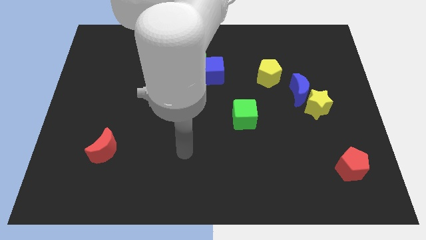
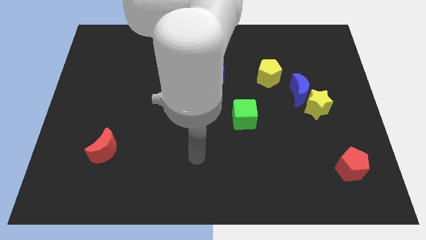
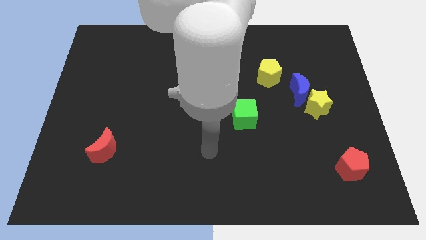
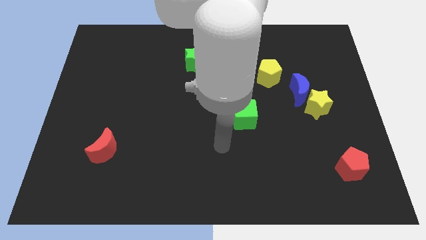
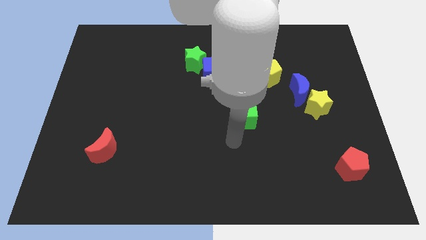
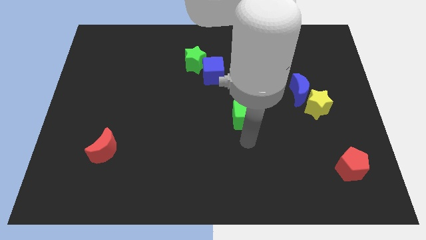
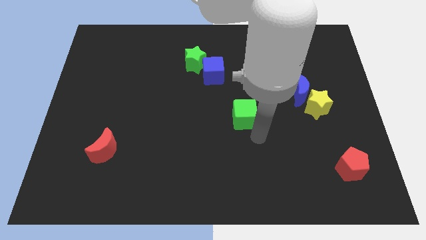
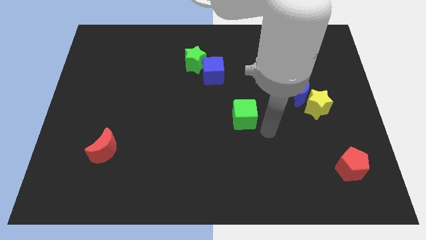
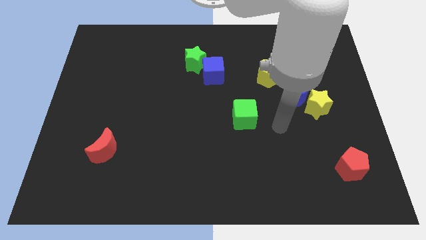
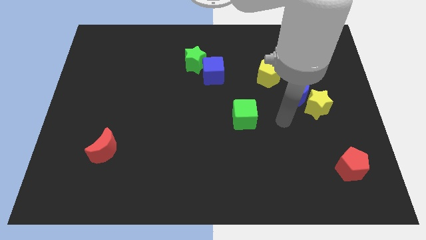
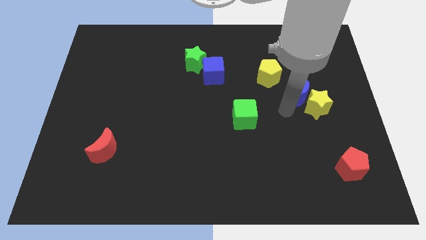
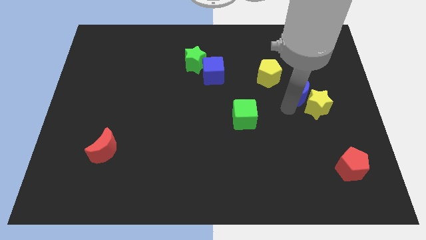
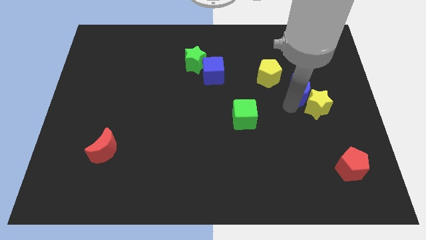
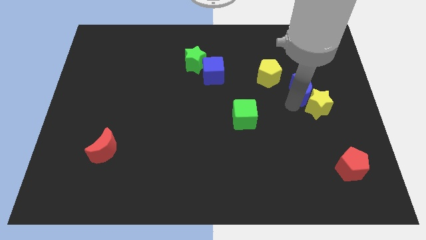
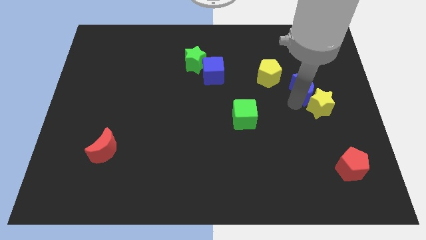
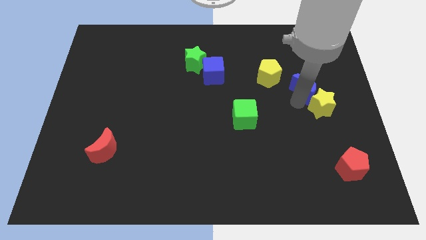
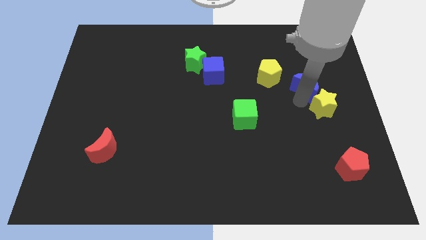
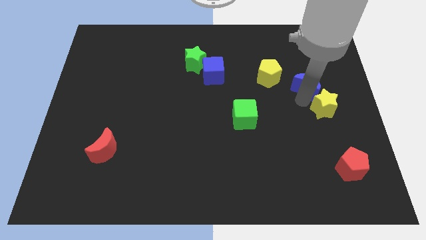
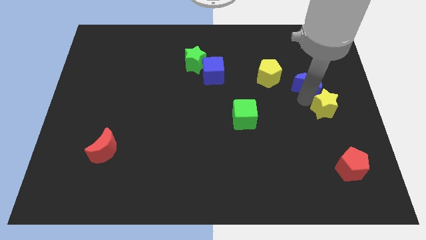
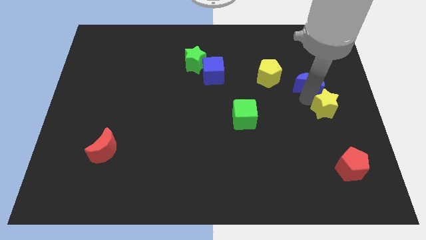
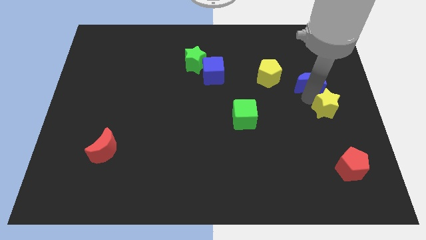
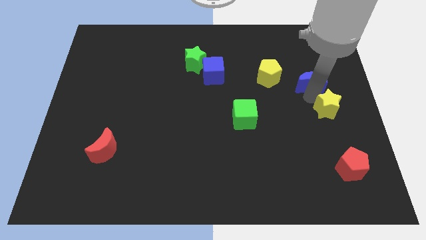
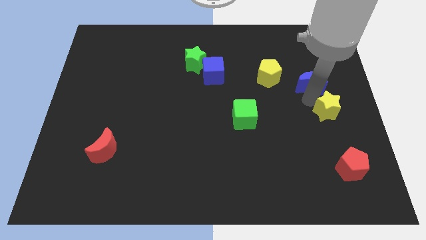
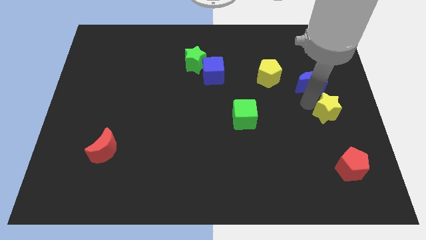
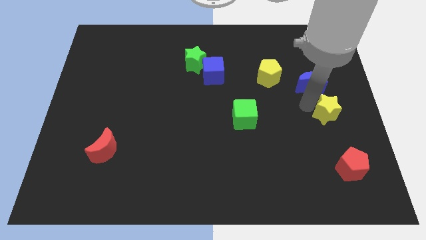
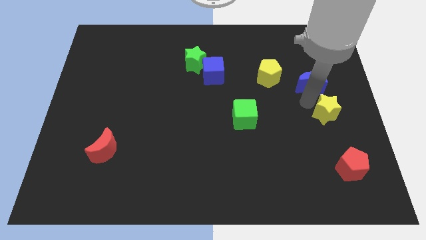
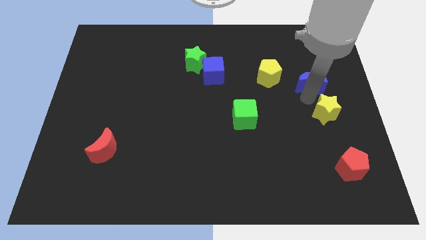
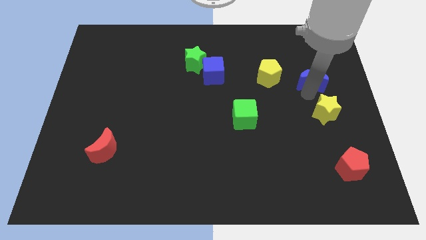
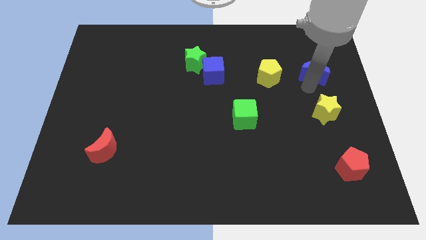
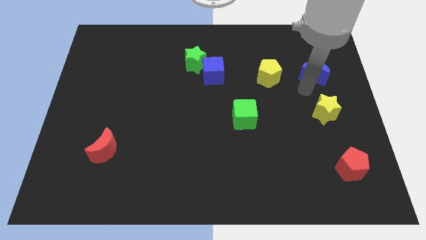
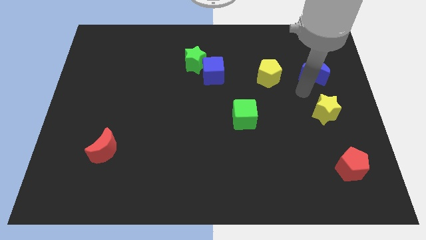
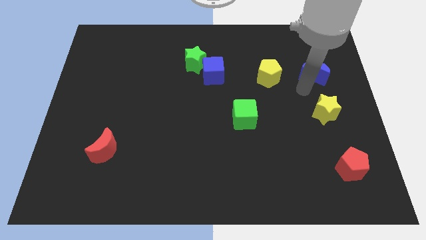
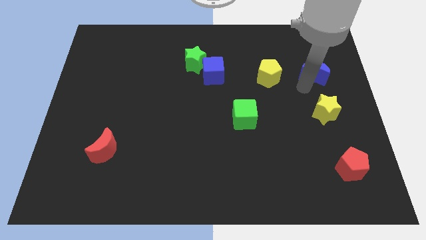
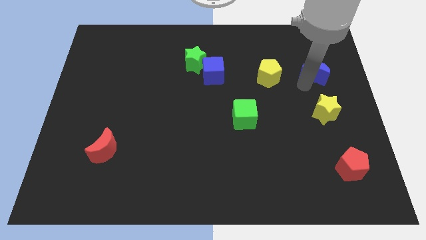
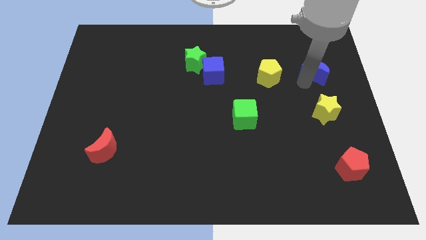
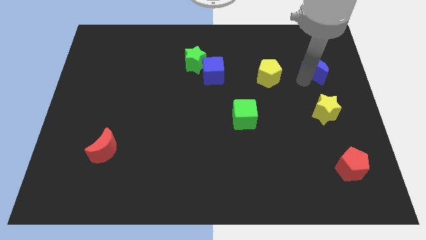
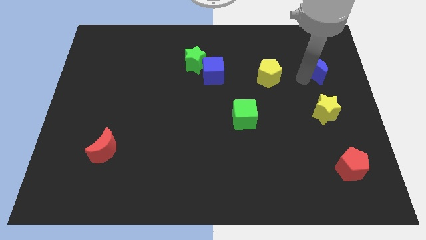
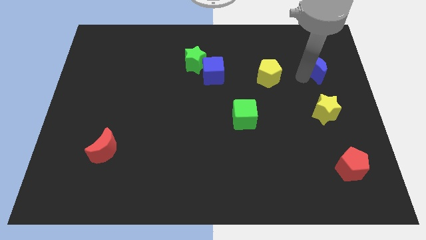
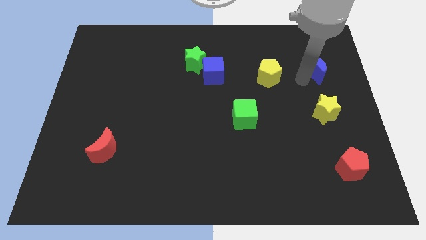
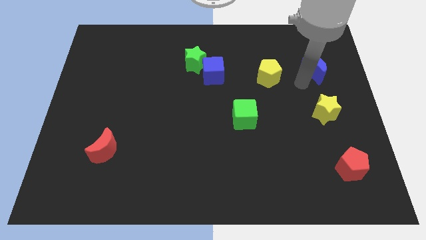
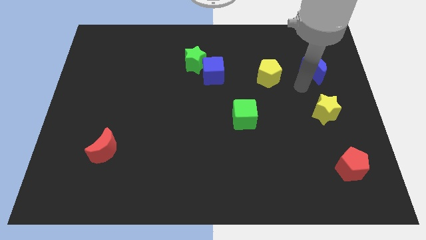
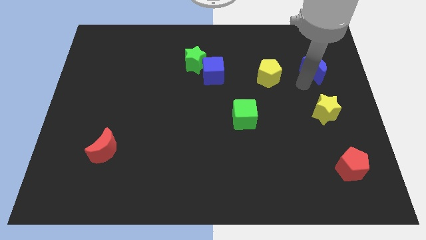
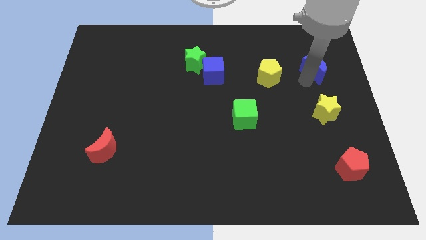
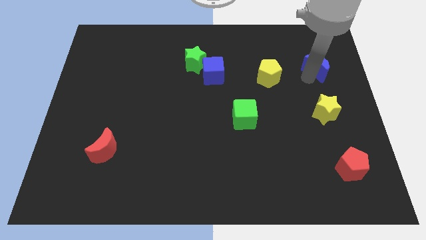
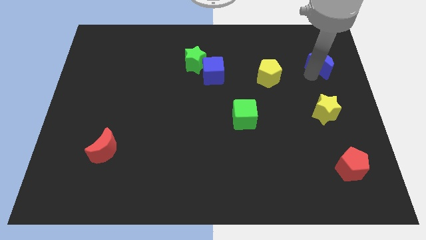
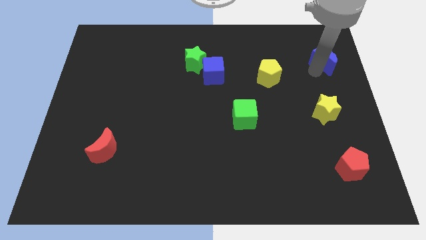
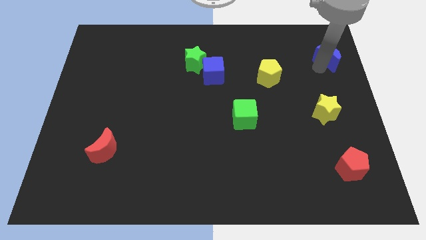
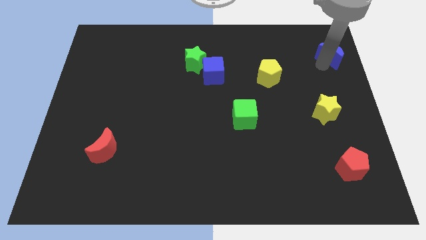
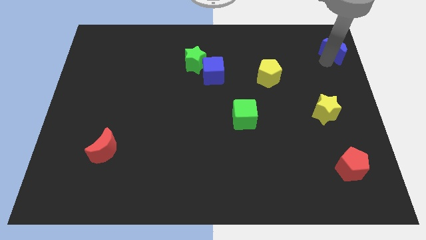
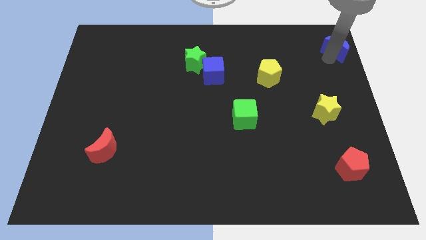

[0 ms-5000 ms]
slide the blue moon to the top right

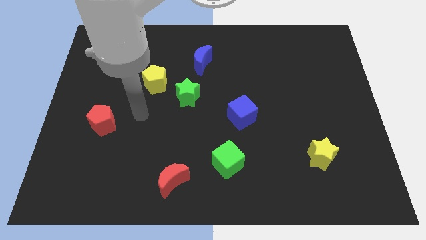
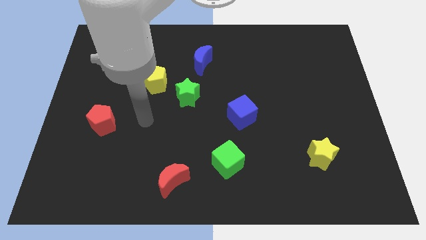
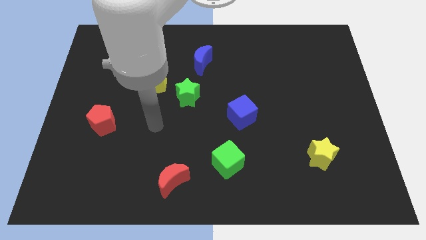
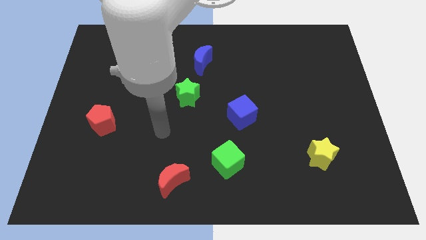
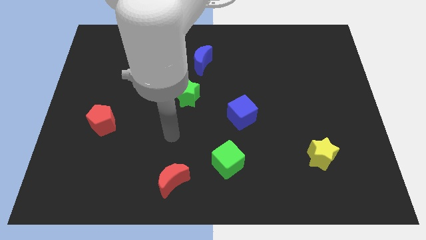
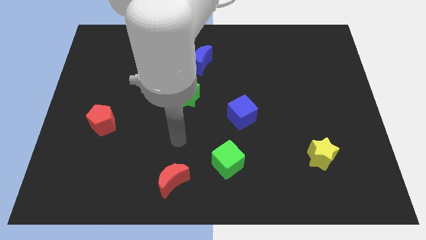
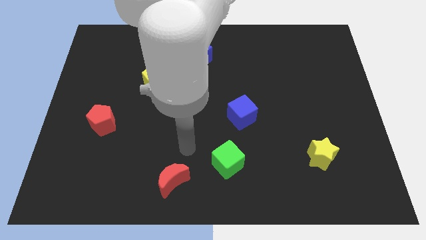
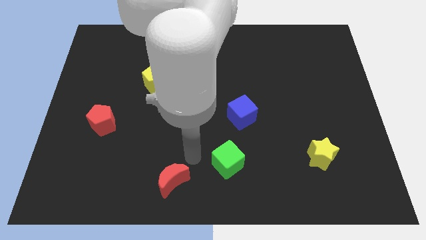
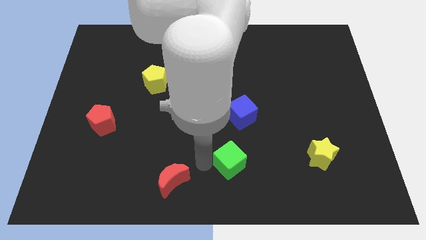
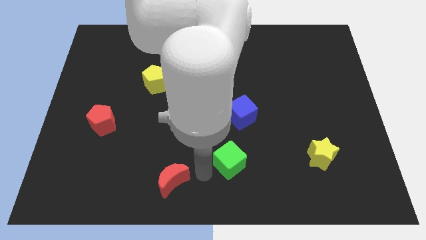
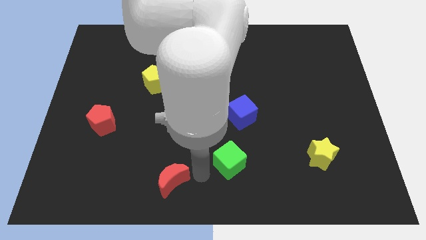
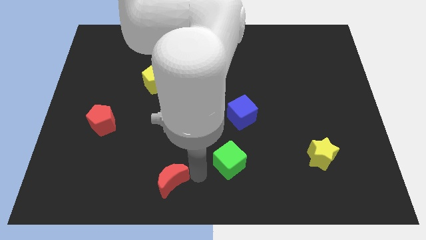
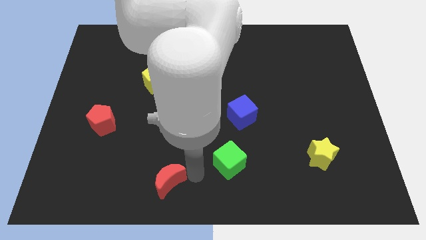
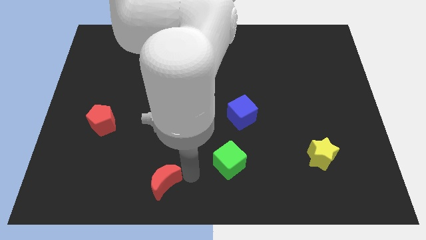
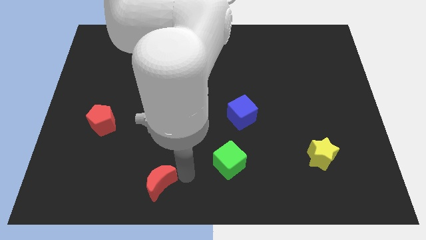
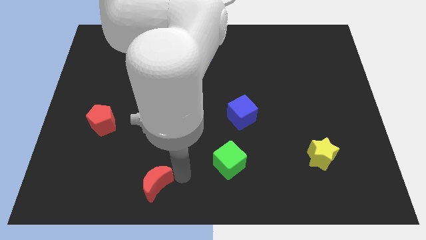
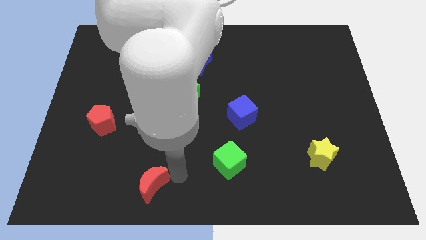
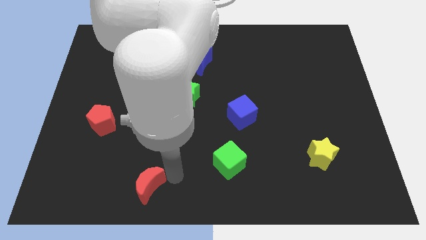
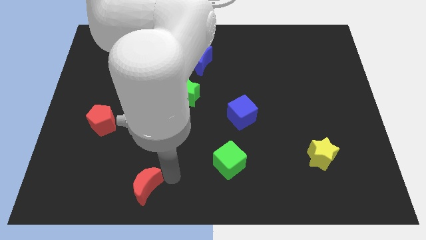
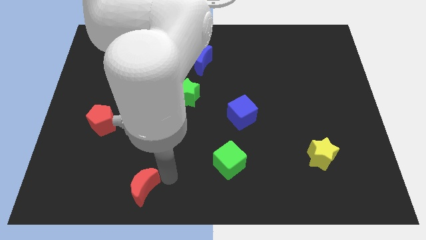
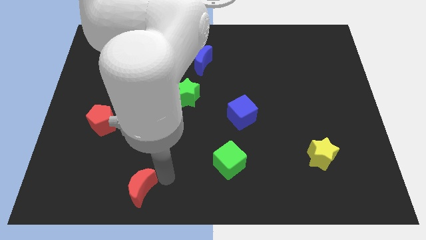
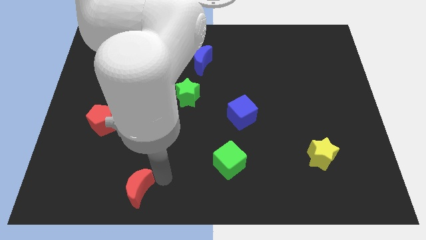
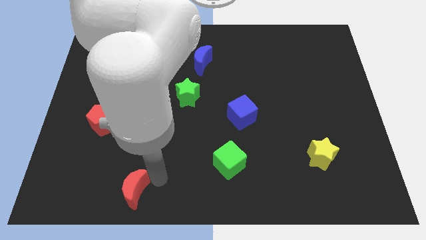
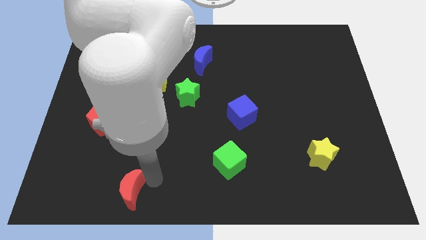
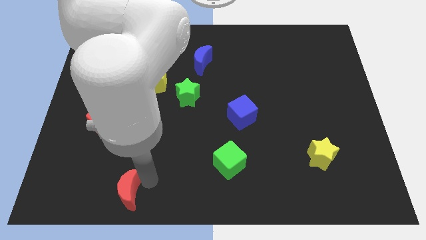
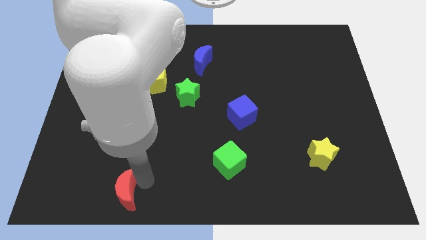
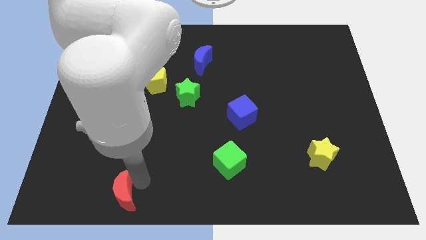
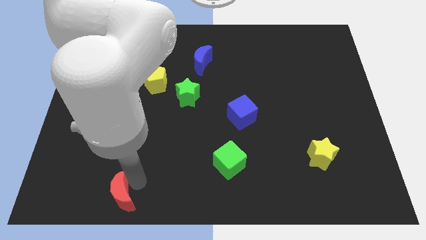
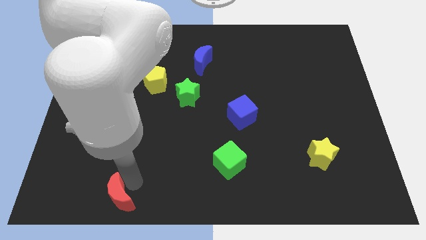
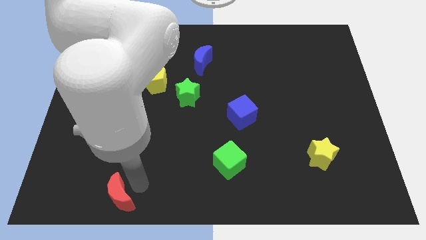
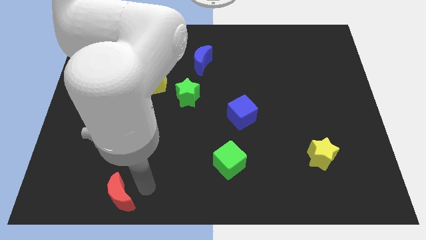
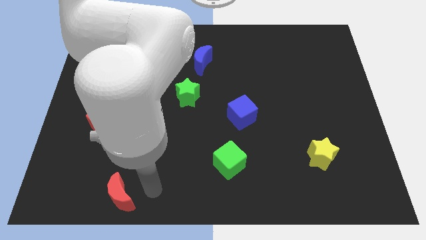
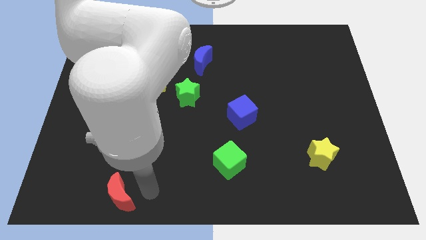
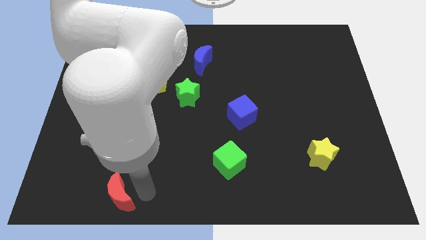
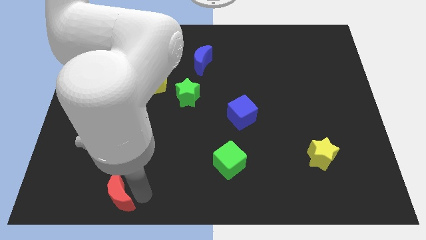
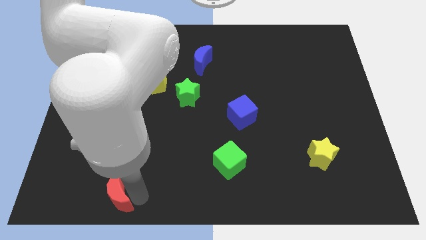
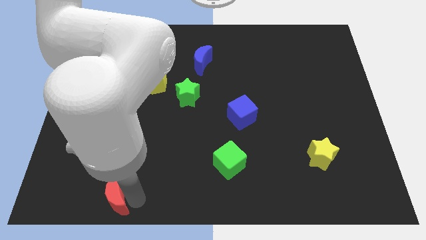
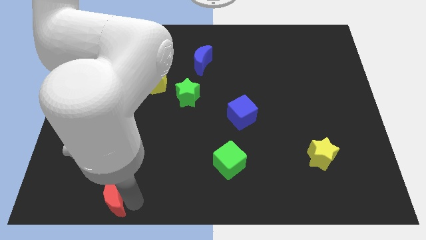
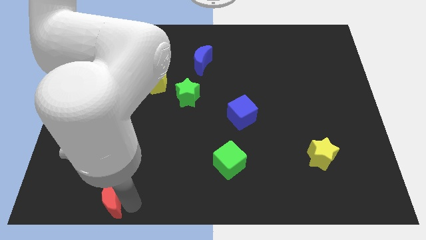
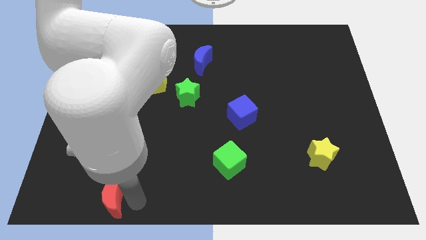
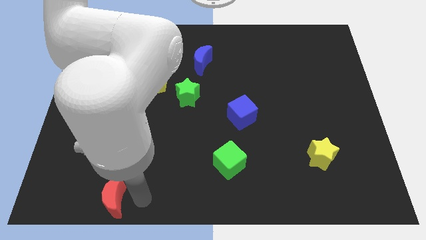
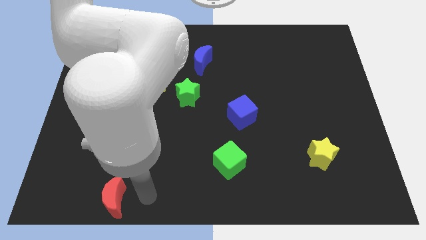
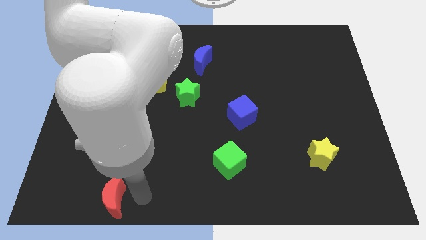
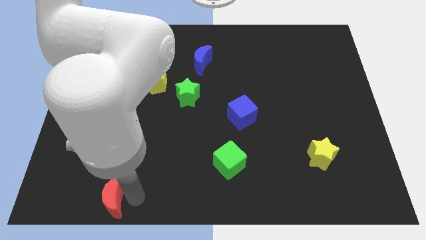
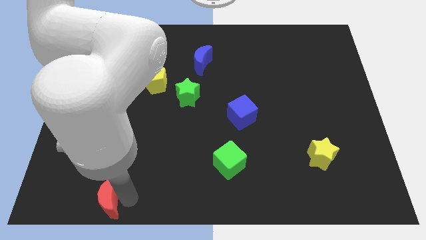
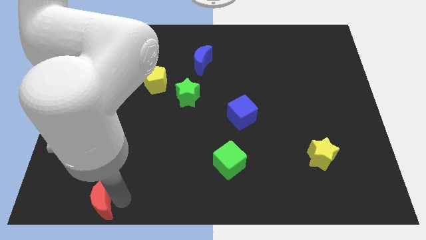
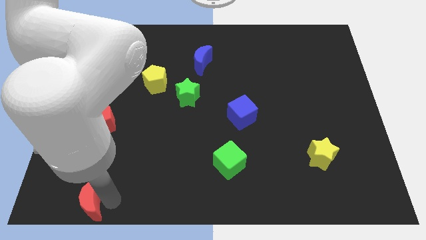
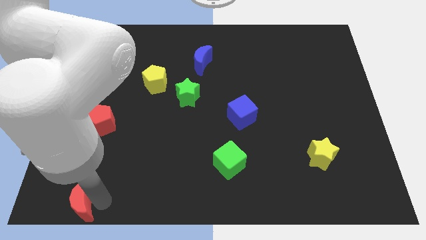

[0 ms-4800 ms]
put the red moon to the bottom left corner
